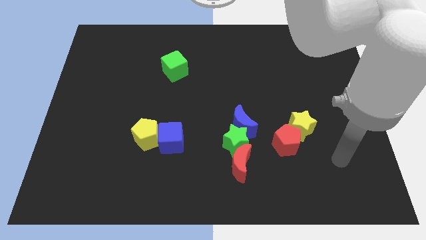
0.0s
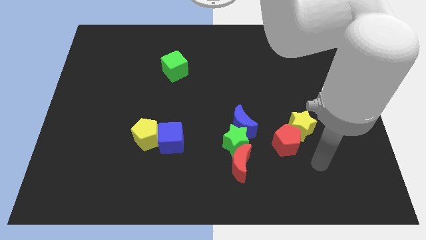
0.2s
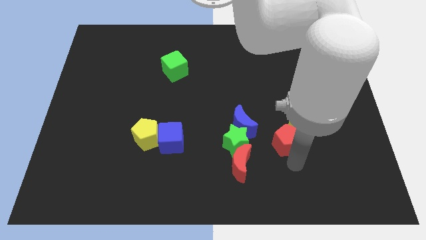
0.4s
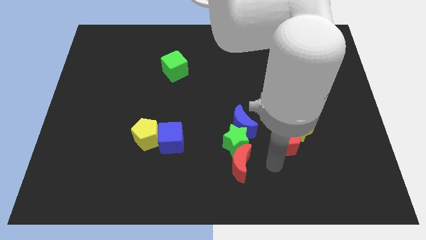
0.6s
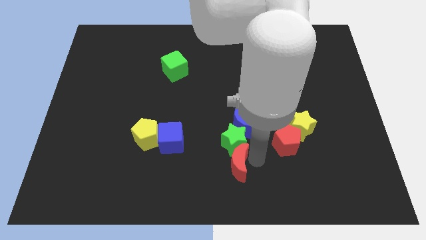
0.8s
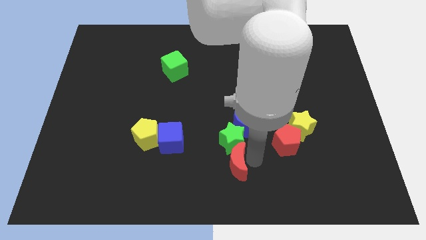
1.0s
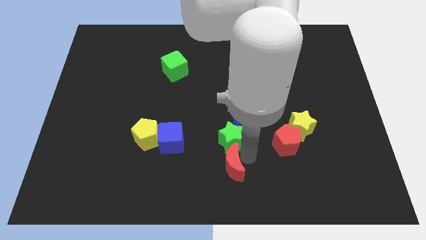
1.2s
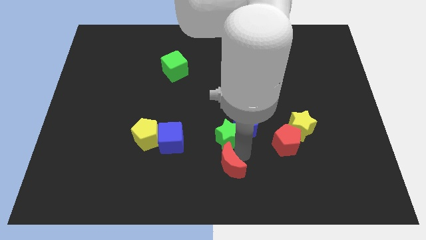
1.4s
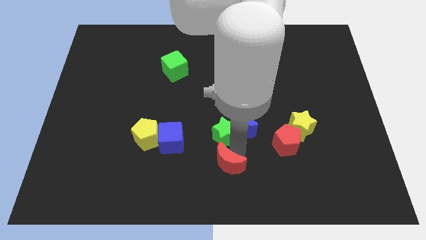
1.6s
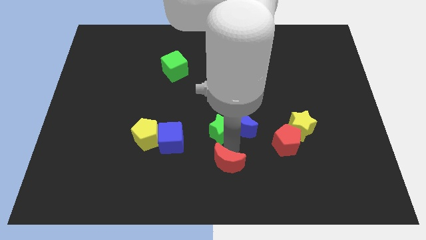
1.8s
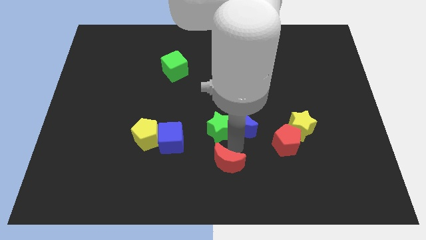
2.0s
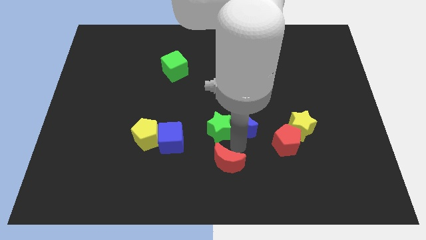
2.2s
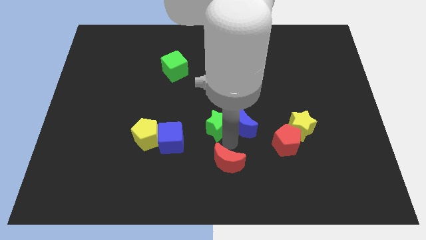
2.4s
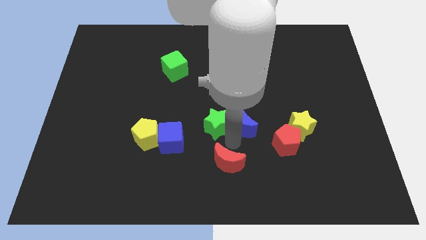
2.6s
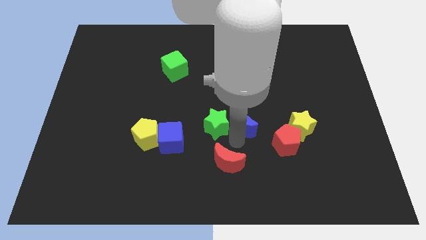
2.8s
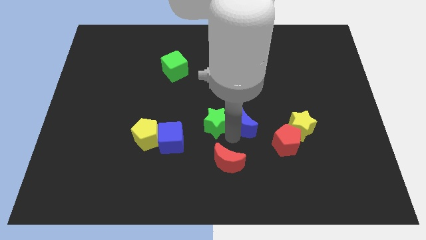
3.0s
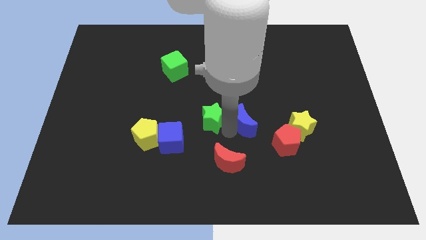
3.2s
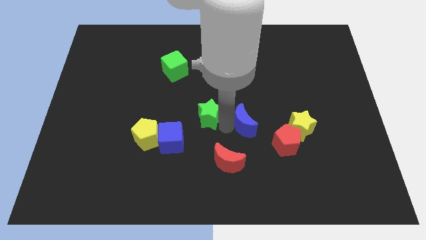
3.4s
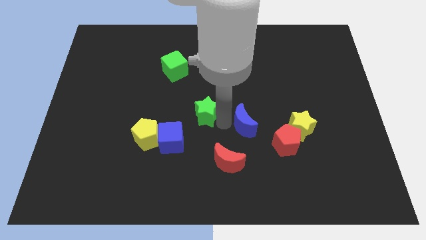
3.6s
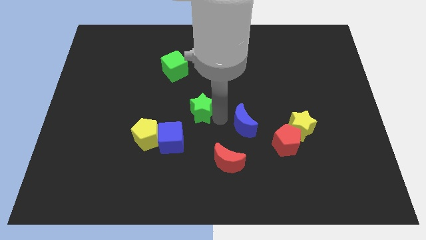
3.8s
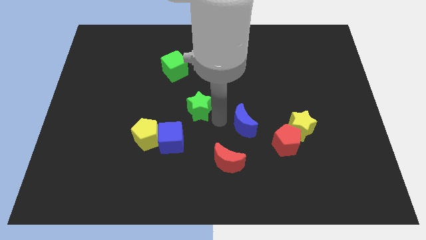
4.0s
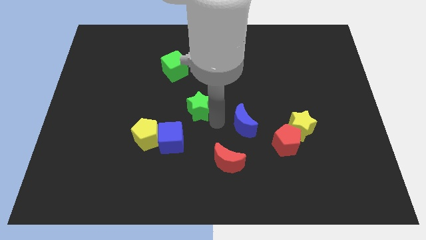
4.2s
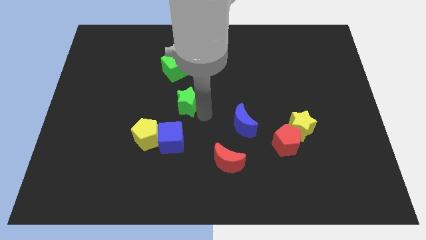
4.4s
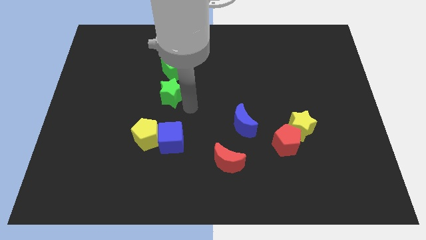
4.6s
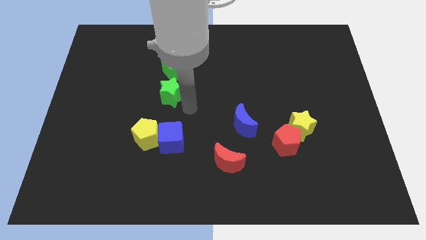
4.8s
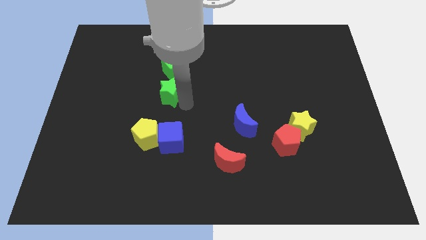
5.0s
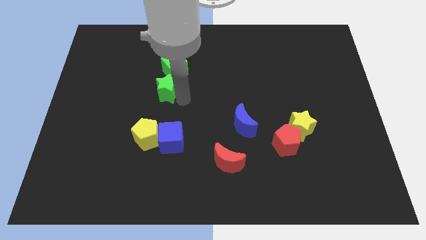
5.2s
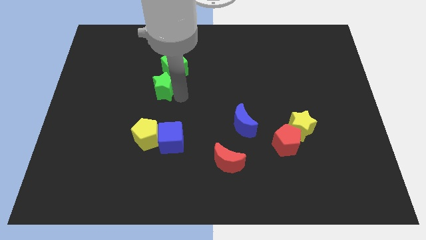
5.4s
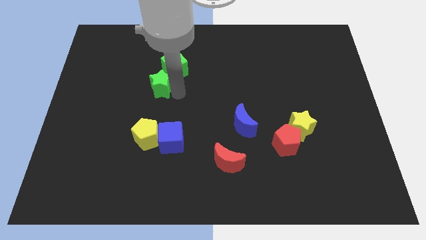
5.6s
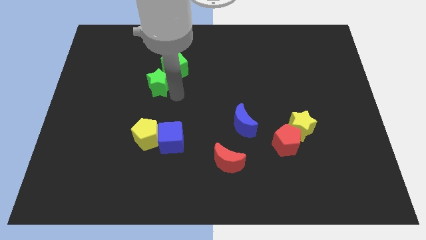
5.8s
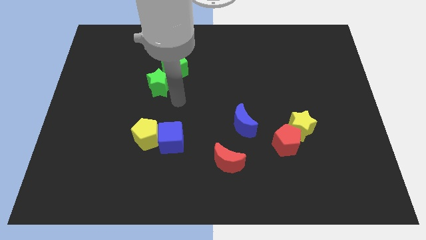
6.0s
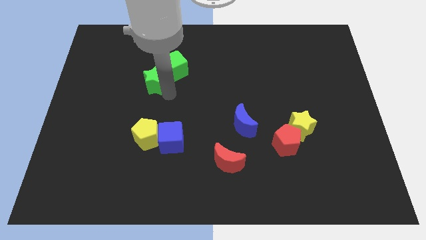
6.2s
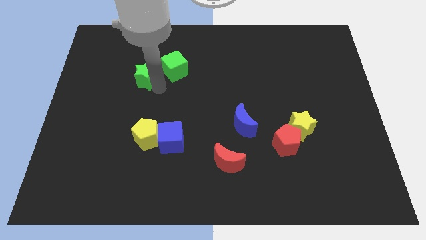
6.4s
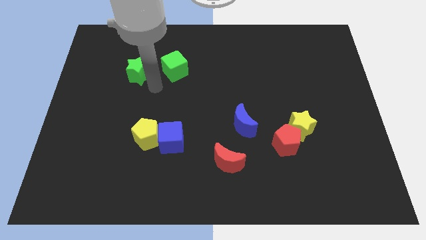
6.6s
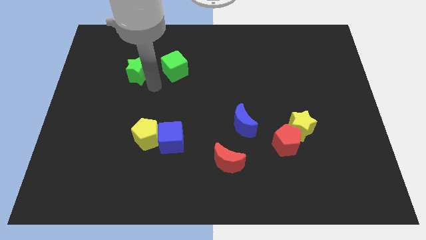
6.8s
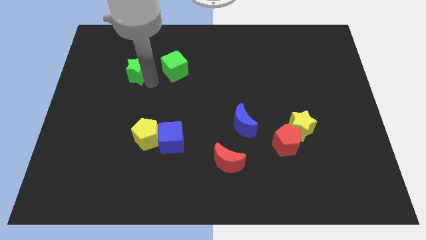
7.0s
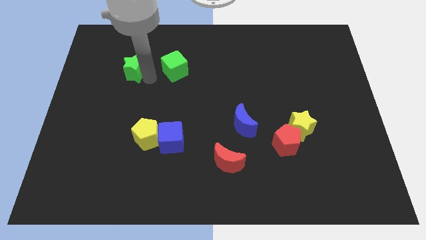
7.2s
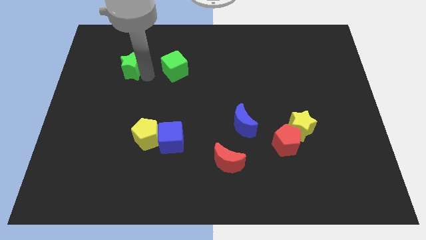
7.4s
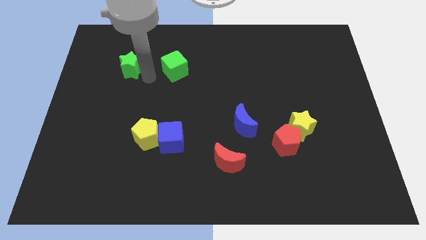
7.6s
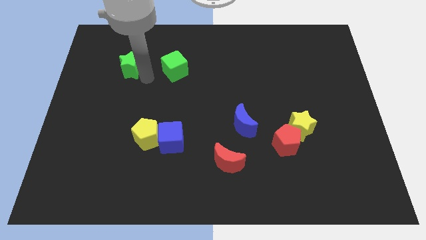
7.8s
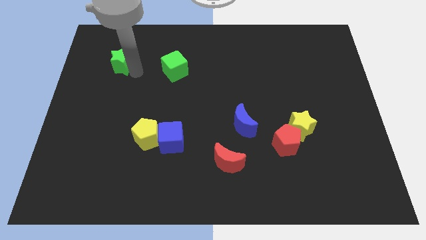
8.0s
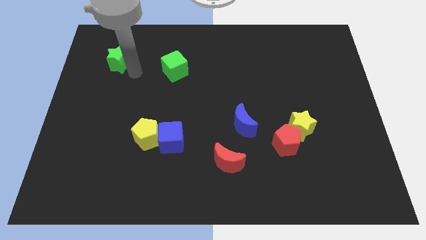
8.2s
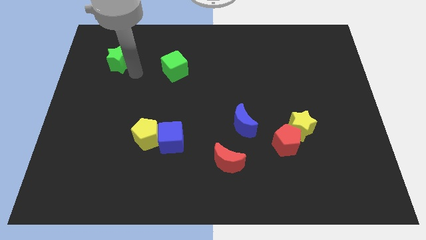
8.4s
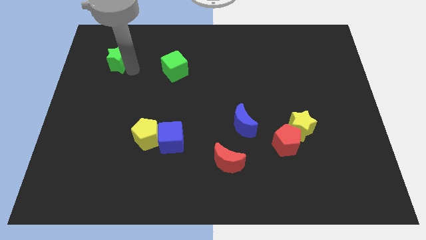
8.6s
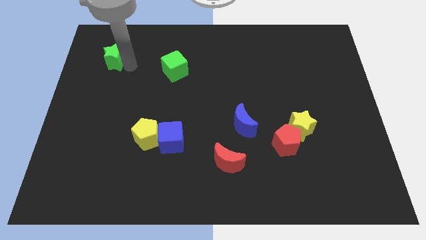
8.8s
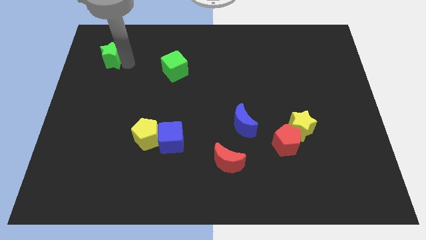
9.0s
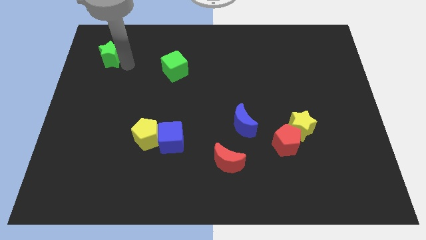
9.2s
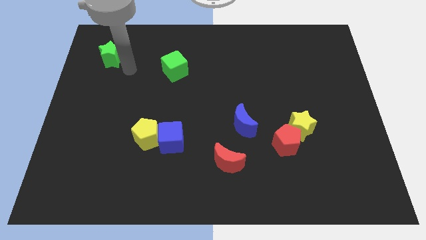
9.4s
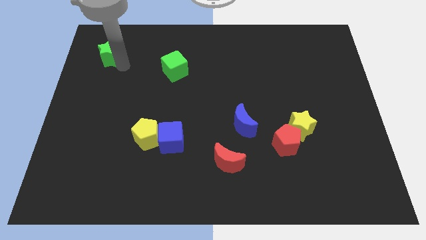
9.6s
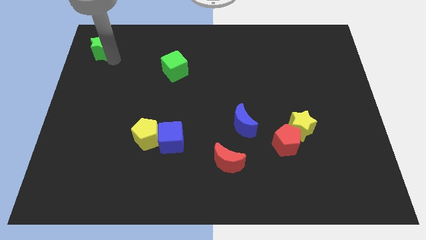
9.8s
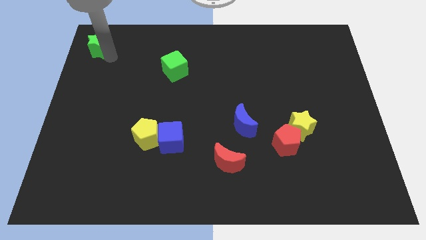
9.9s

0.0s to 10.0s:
put the green star to the top left of the board

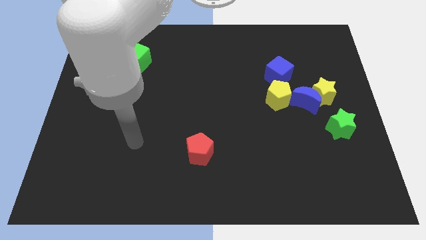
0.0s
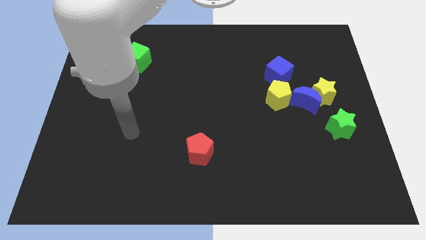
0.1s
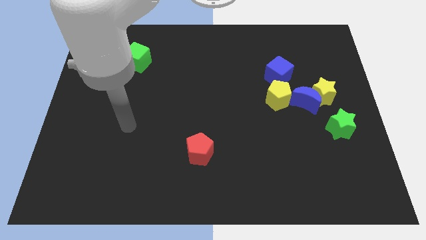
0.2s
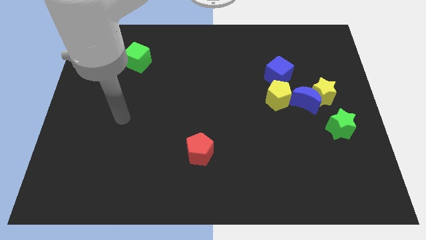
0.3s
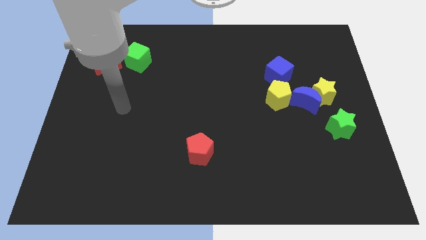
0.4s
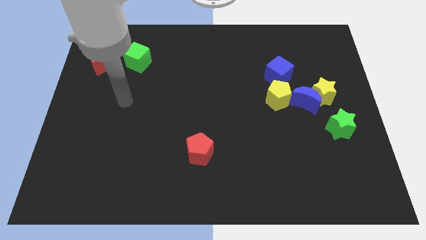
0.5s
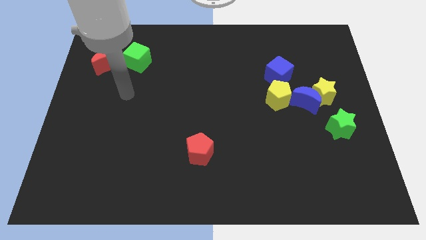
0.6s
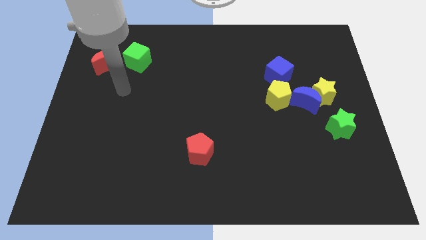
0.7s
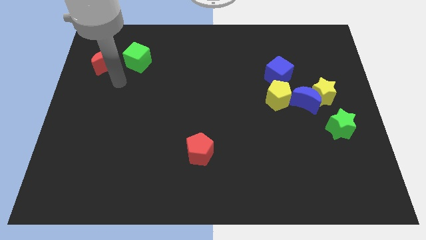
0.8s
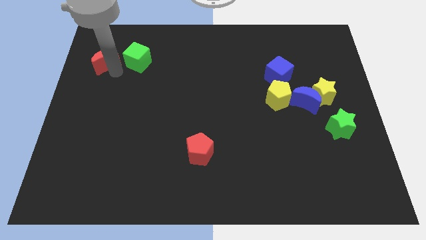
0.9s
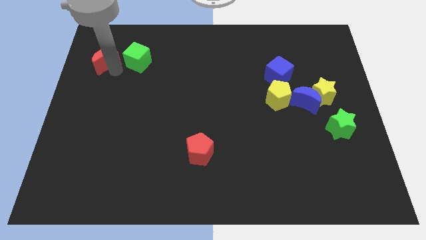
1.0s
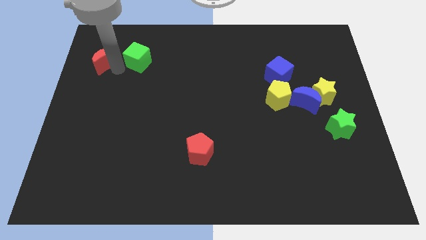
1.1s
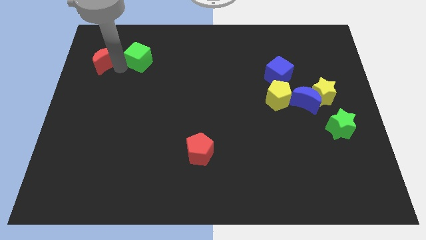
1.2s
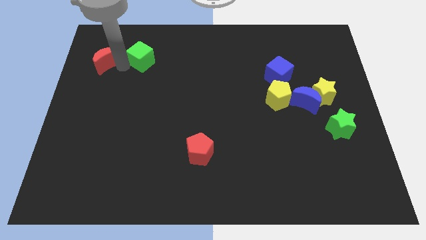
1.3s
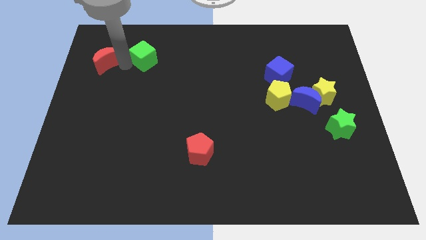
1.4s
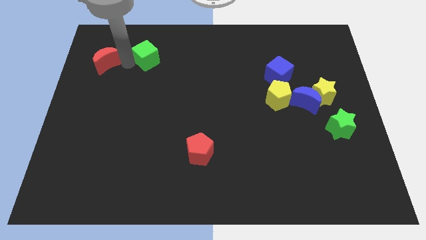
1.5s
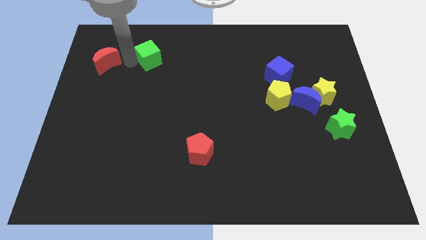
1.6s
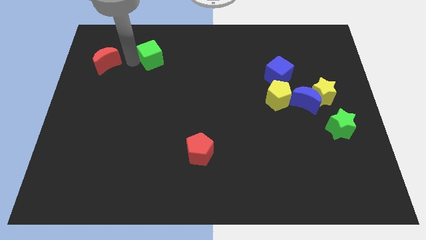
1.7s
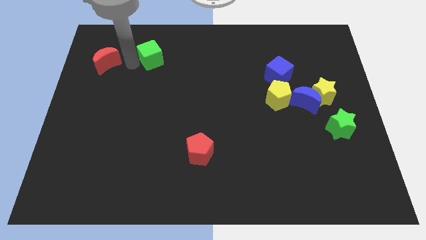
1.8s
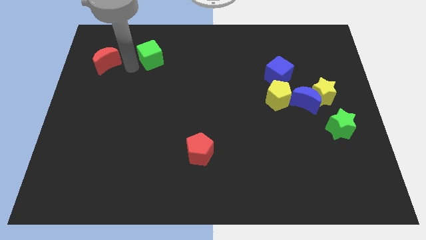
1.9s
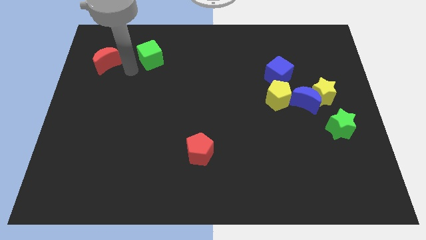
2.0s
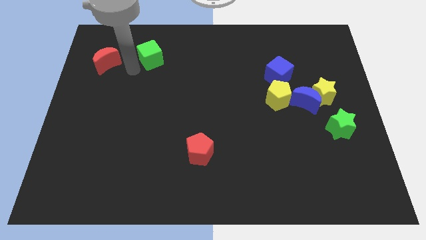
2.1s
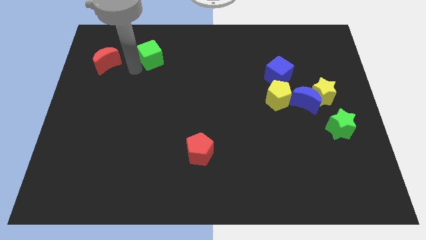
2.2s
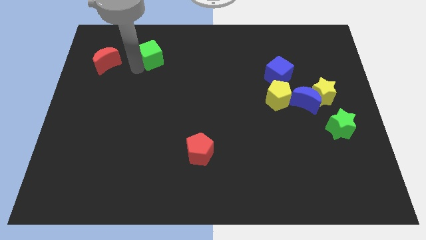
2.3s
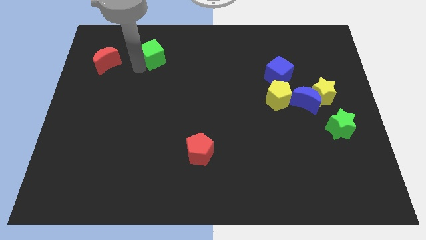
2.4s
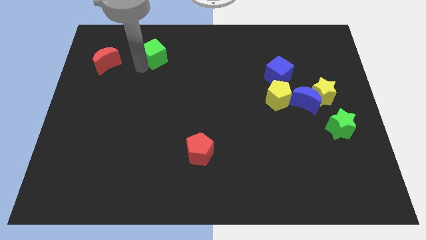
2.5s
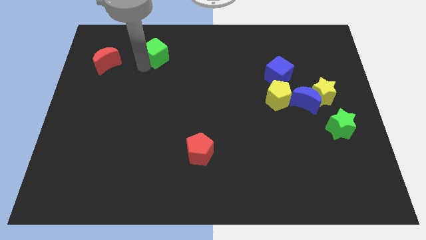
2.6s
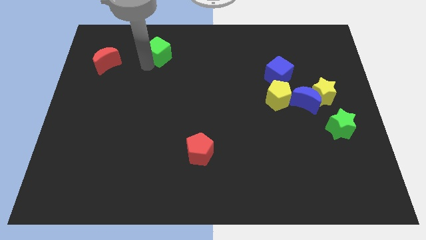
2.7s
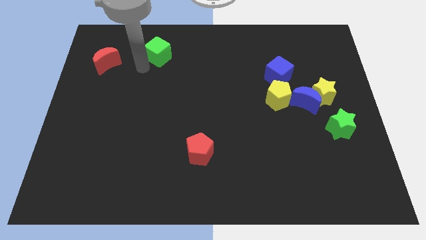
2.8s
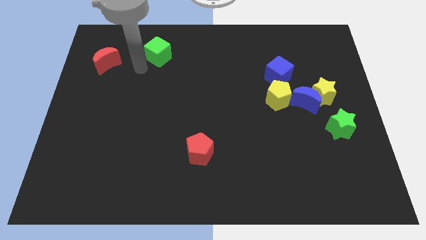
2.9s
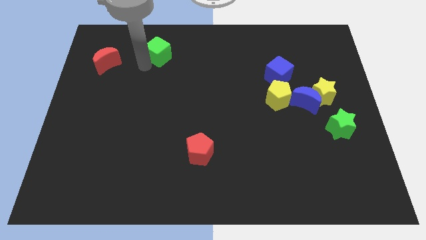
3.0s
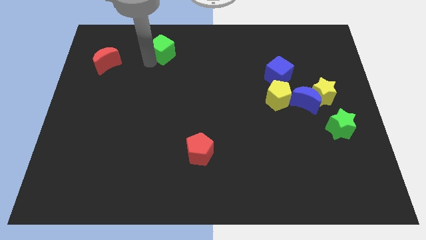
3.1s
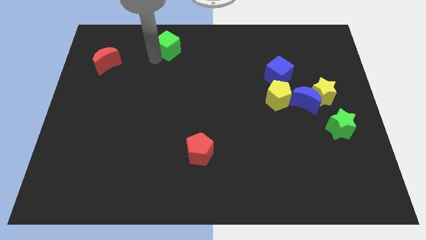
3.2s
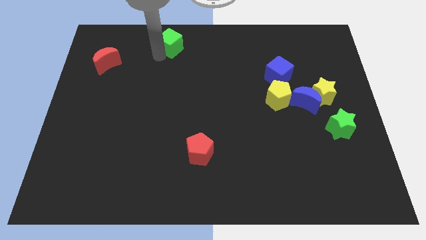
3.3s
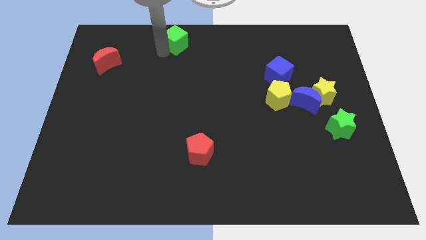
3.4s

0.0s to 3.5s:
push the green cube to the top side
